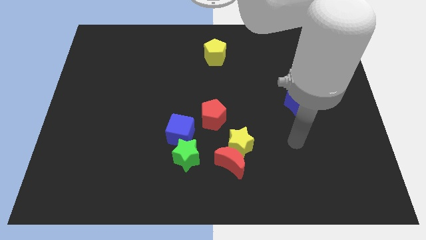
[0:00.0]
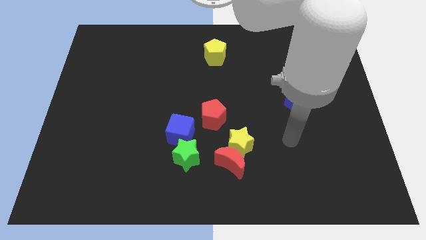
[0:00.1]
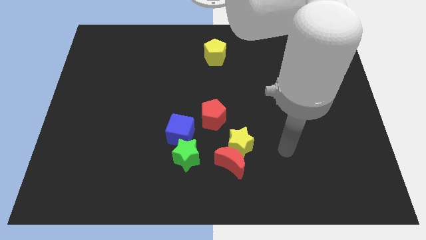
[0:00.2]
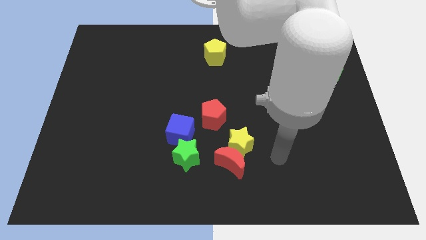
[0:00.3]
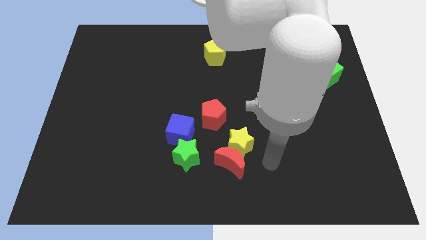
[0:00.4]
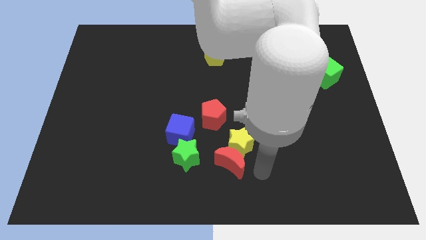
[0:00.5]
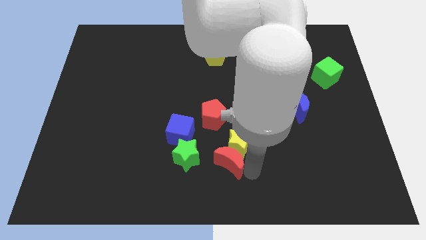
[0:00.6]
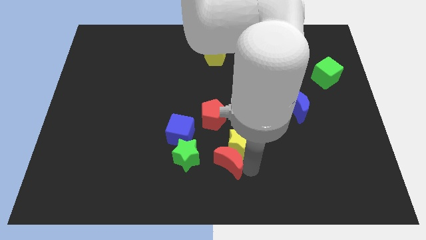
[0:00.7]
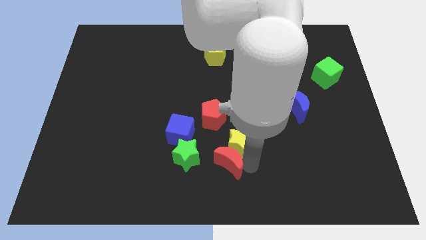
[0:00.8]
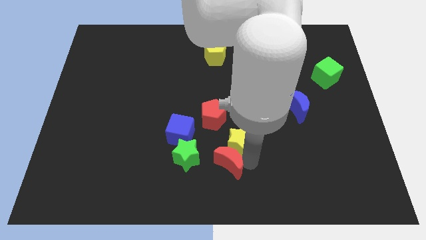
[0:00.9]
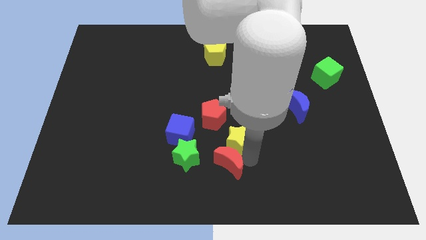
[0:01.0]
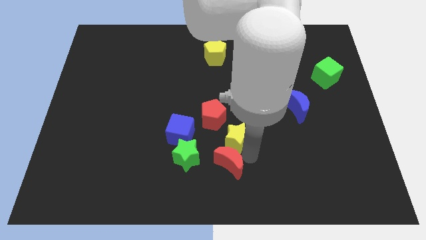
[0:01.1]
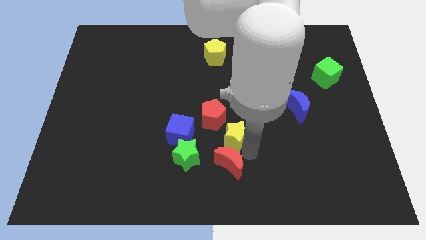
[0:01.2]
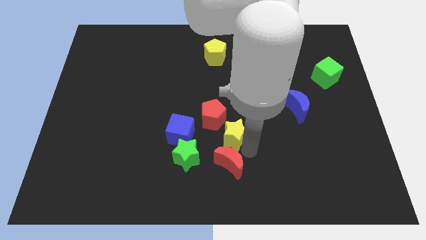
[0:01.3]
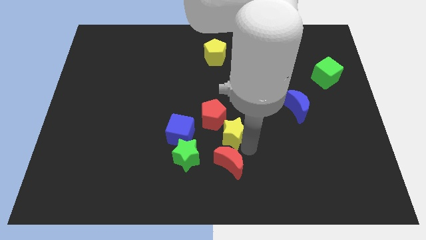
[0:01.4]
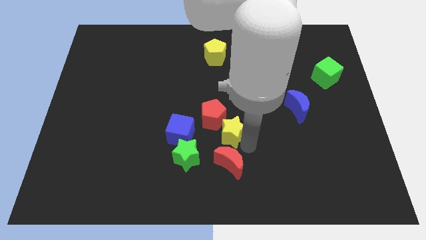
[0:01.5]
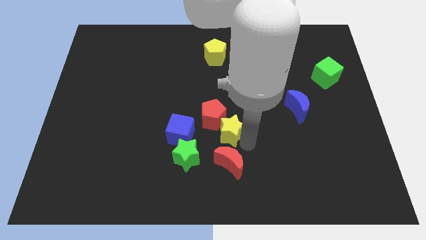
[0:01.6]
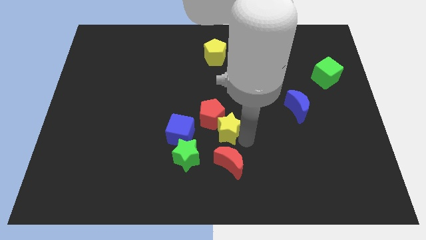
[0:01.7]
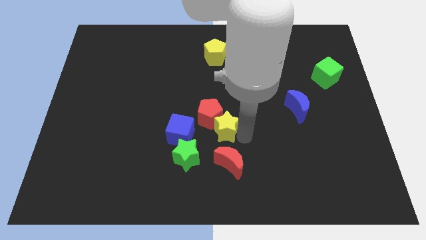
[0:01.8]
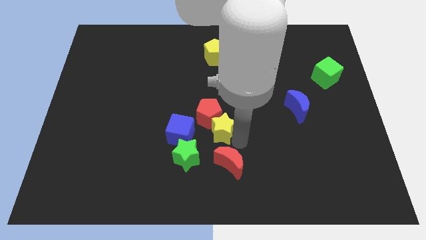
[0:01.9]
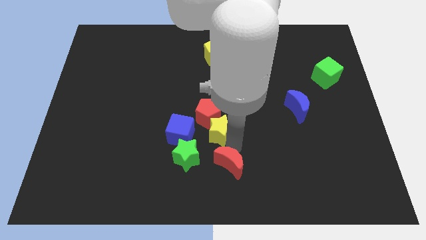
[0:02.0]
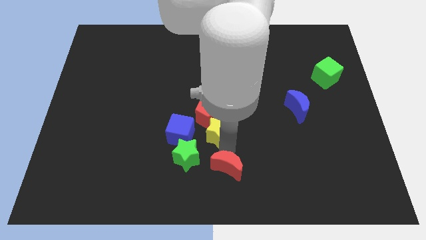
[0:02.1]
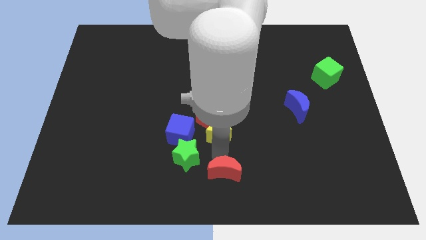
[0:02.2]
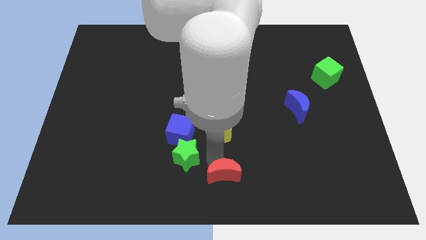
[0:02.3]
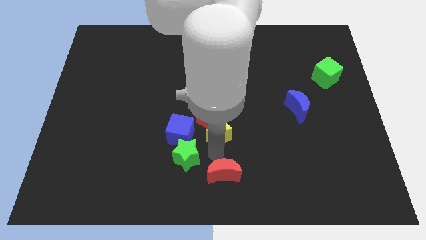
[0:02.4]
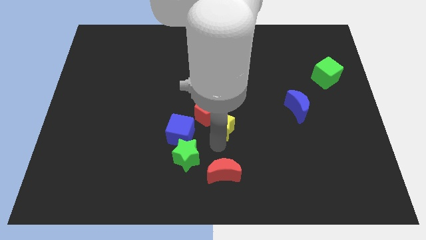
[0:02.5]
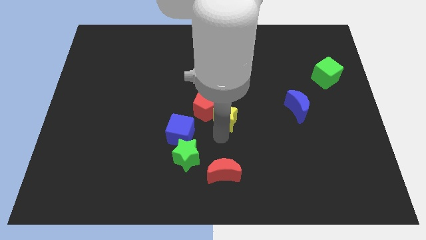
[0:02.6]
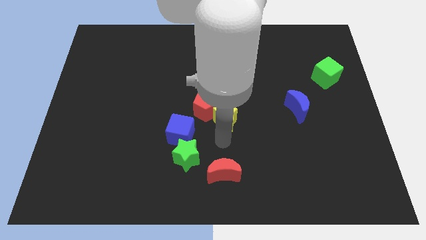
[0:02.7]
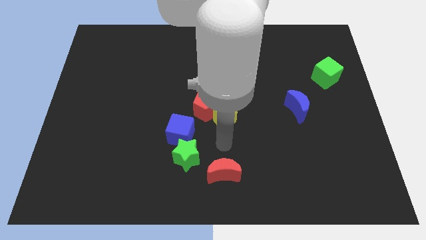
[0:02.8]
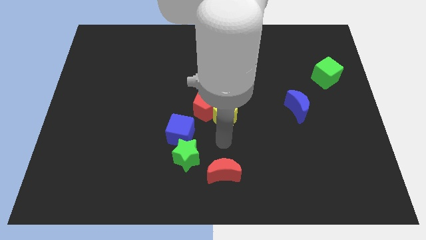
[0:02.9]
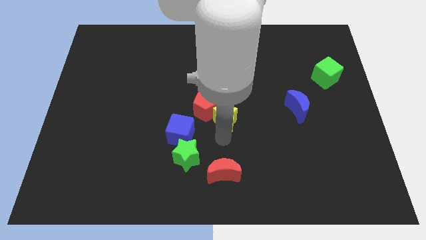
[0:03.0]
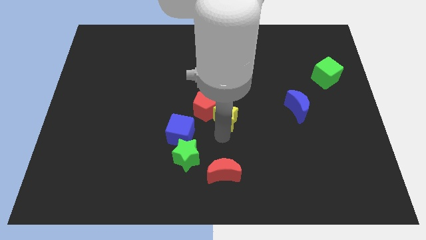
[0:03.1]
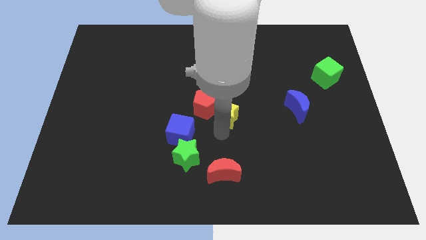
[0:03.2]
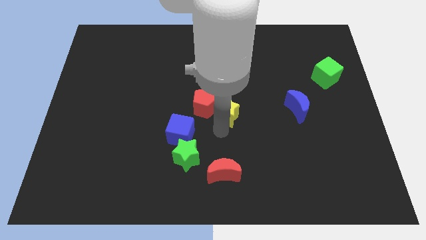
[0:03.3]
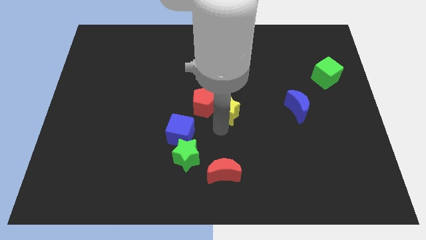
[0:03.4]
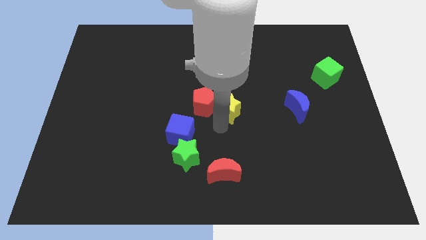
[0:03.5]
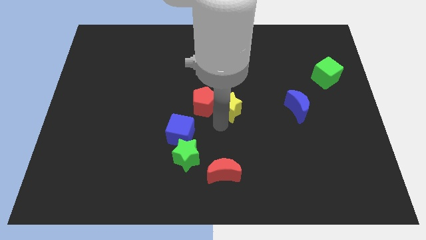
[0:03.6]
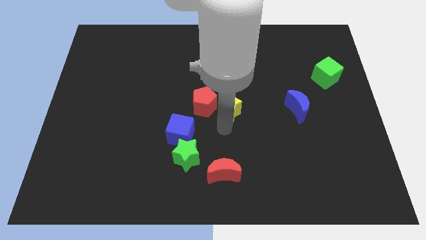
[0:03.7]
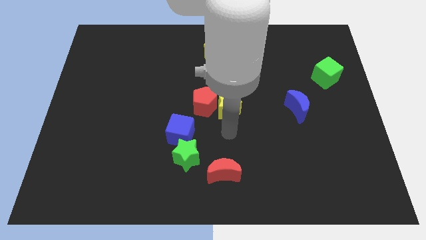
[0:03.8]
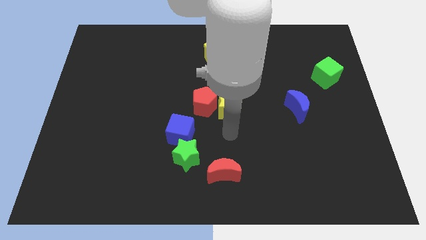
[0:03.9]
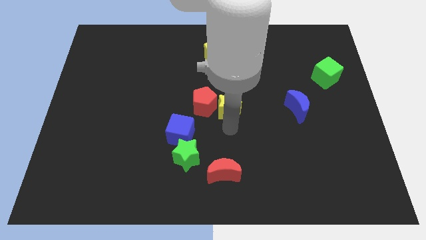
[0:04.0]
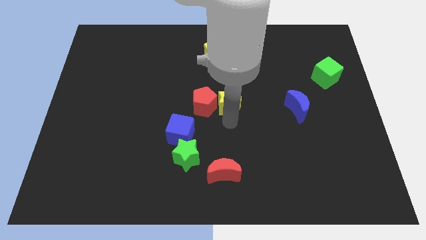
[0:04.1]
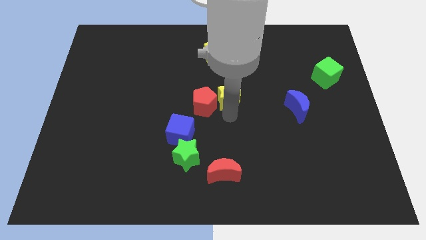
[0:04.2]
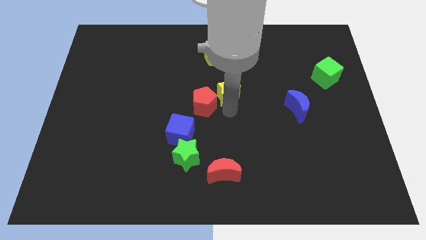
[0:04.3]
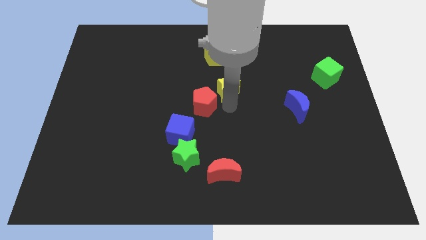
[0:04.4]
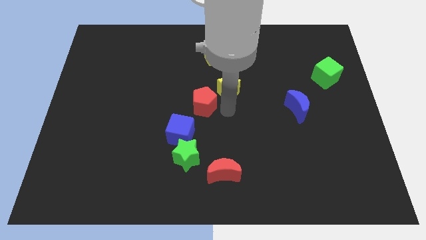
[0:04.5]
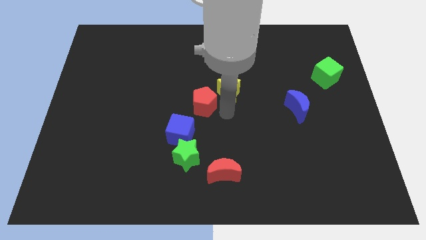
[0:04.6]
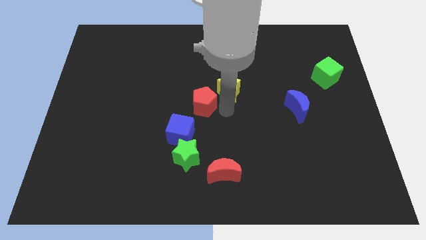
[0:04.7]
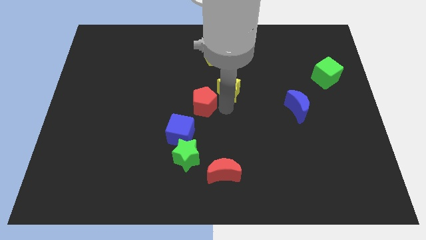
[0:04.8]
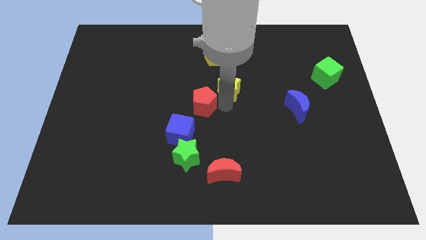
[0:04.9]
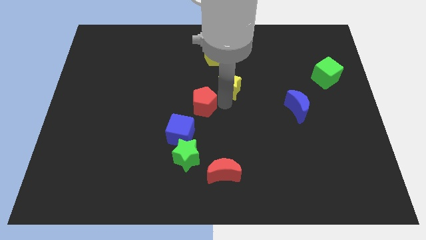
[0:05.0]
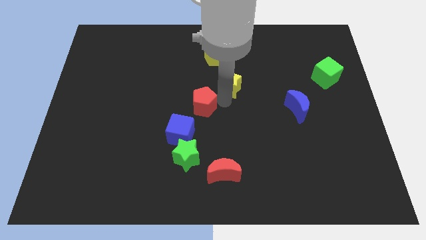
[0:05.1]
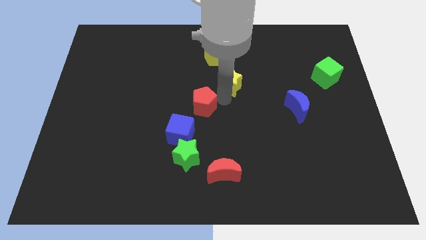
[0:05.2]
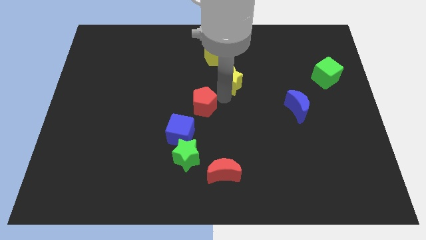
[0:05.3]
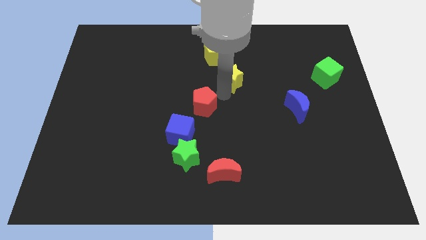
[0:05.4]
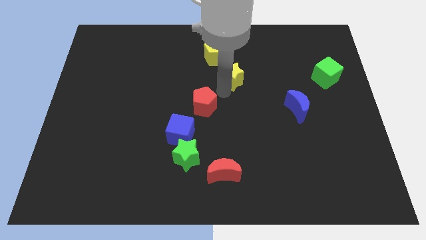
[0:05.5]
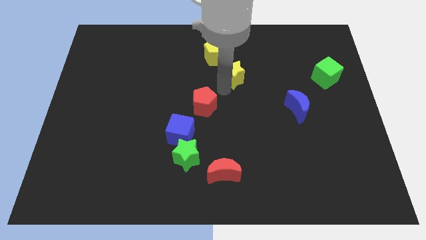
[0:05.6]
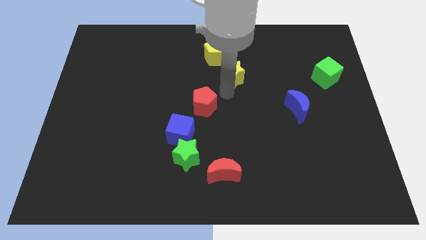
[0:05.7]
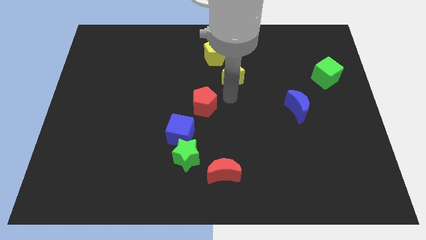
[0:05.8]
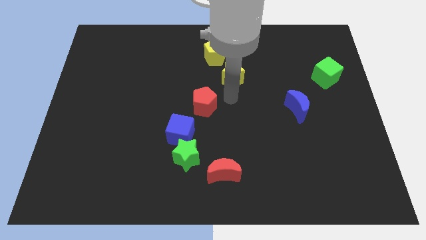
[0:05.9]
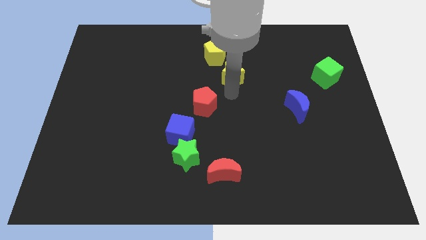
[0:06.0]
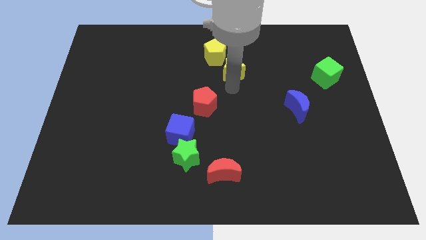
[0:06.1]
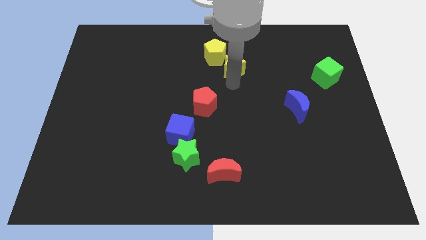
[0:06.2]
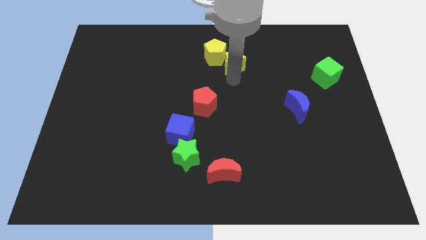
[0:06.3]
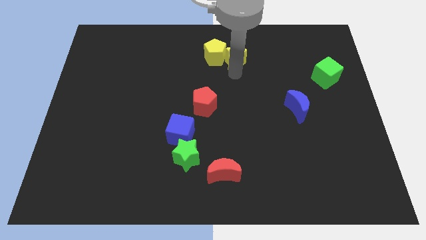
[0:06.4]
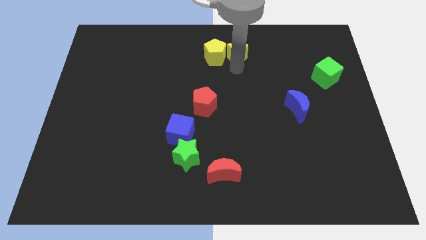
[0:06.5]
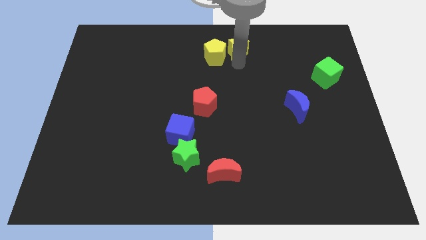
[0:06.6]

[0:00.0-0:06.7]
move the yellow star to the towards your base
